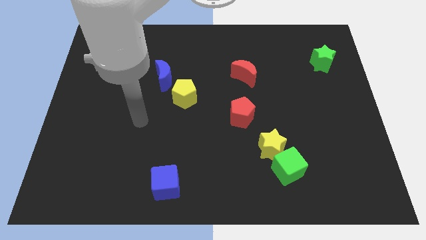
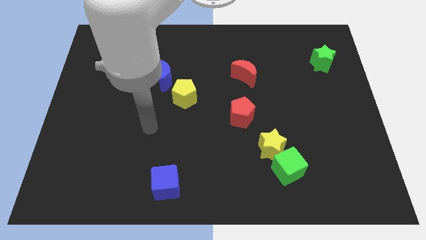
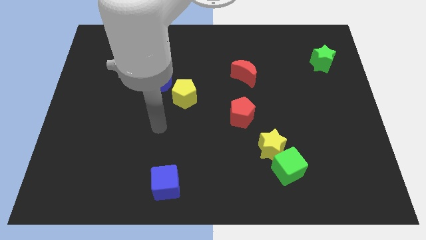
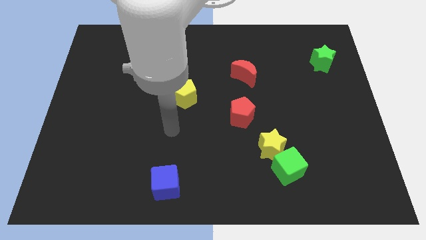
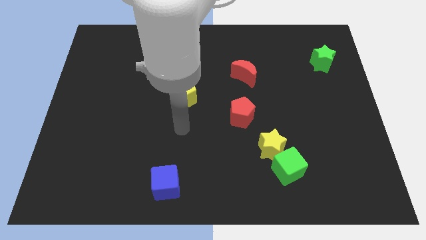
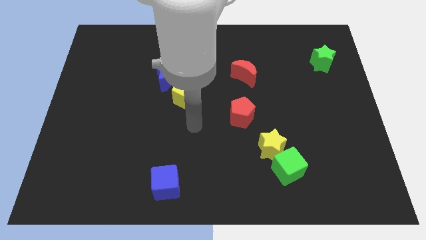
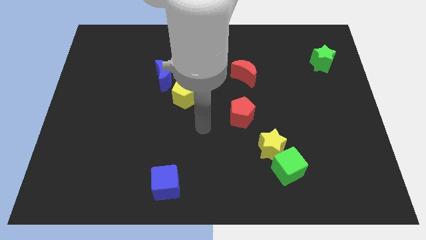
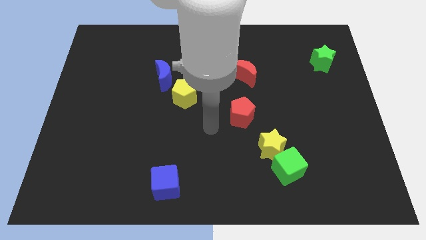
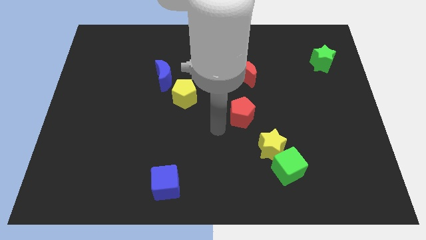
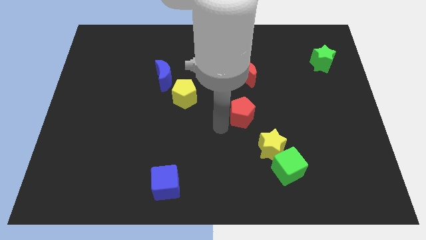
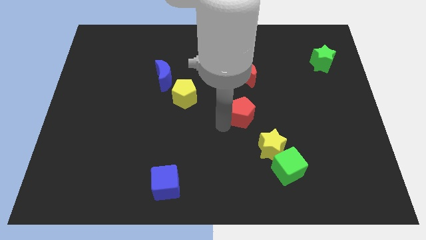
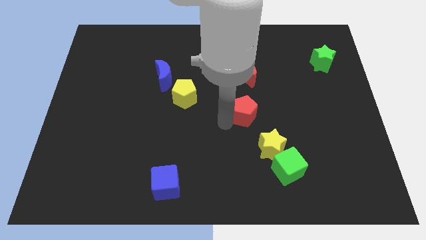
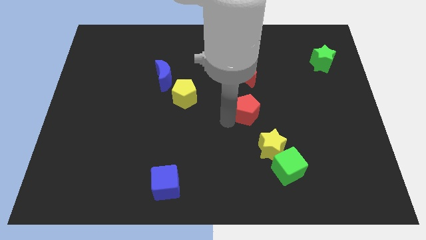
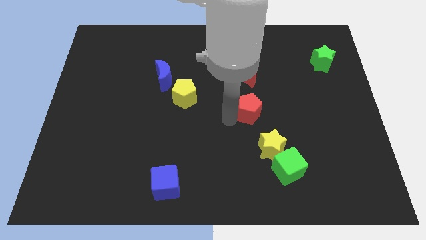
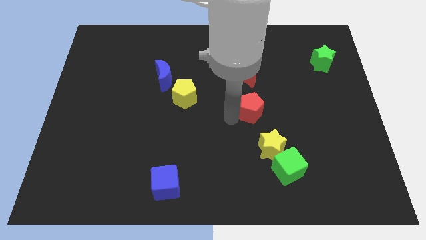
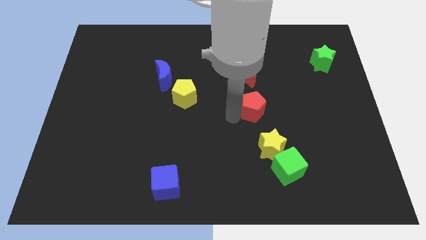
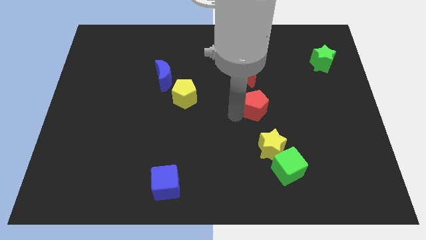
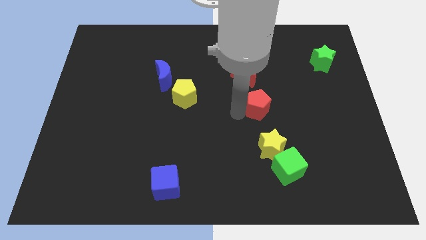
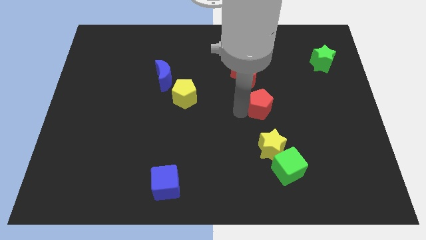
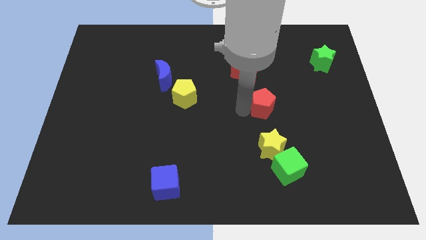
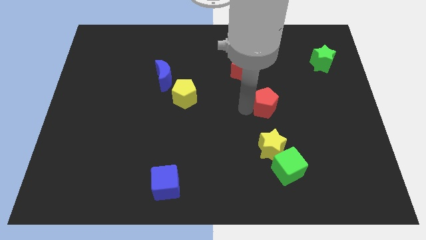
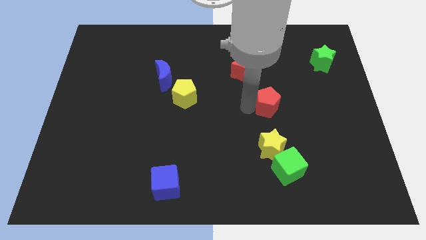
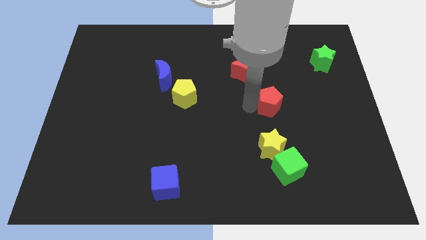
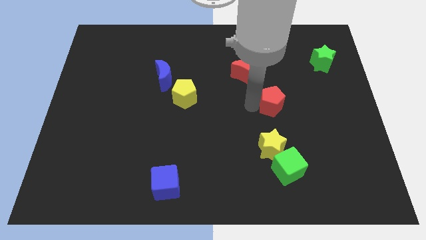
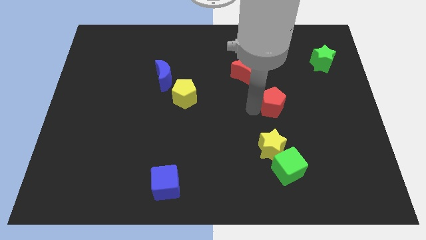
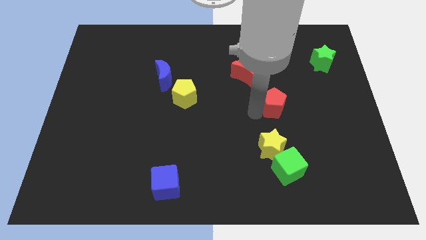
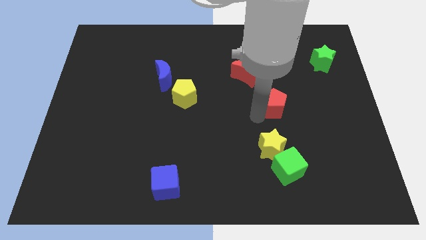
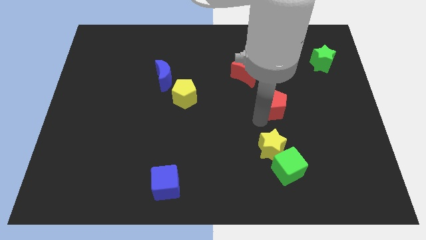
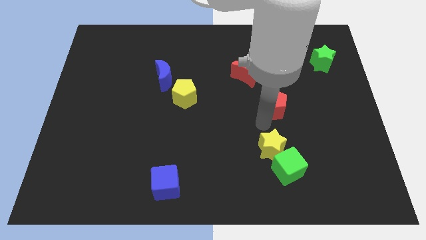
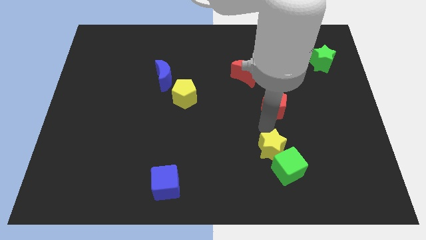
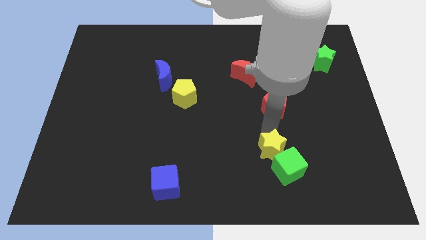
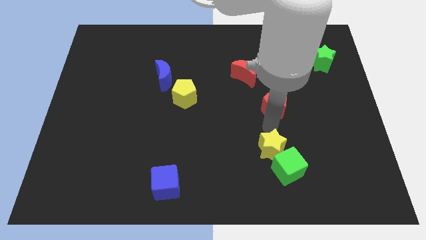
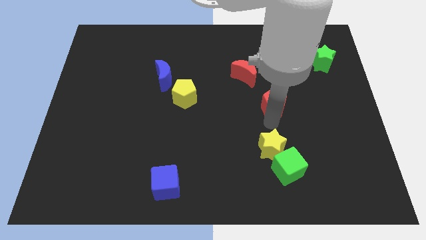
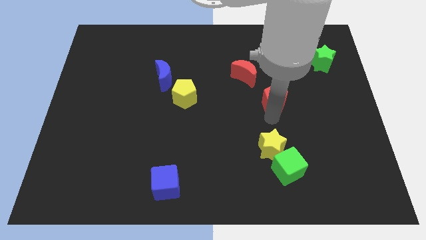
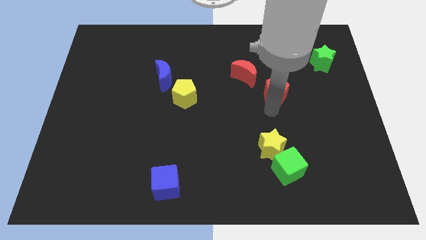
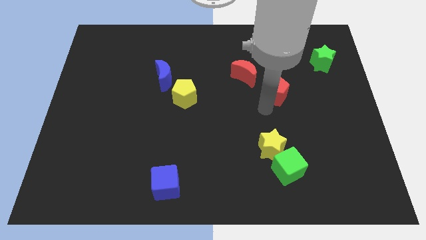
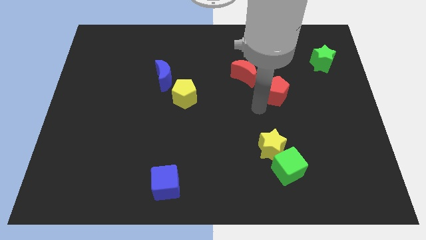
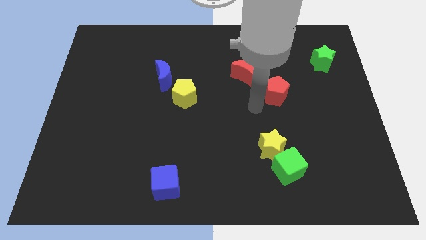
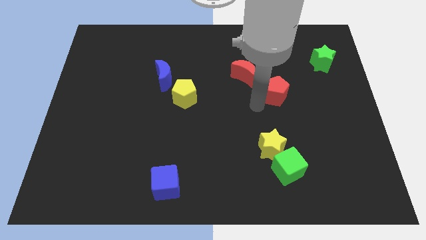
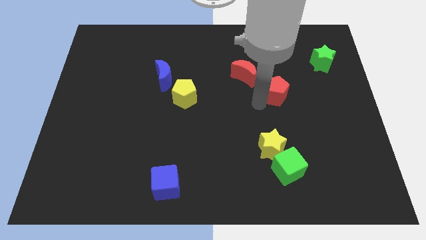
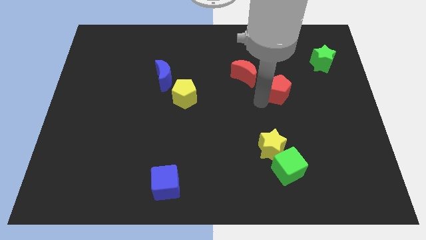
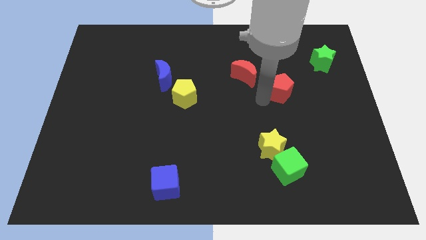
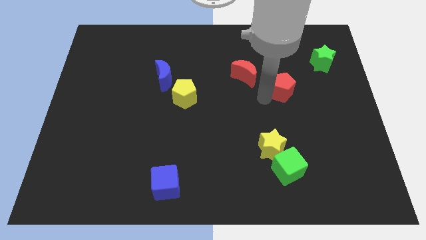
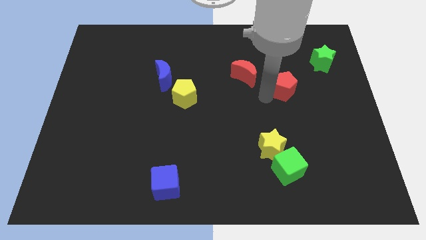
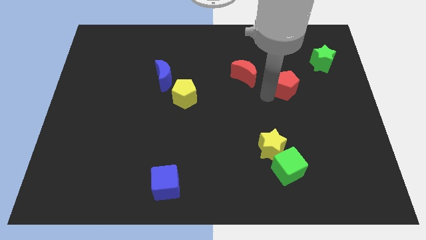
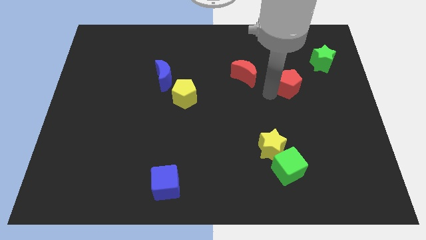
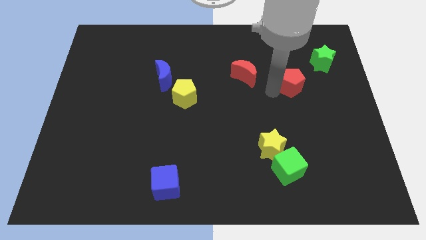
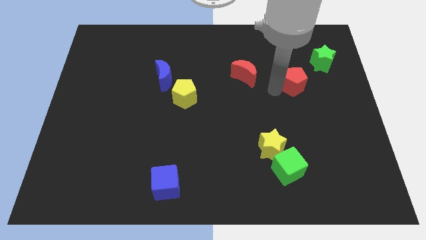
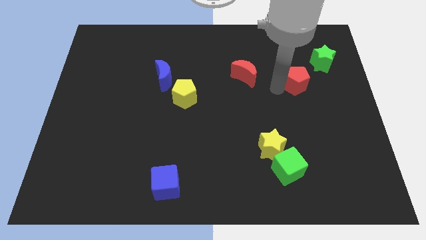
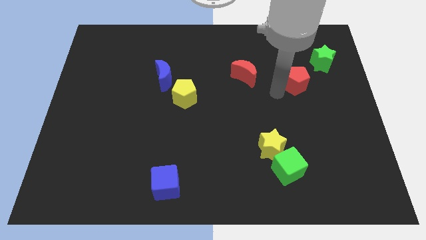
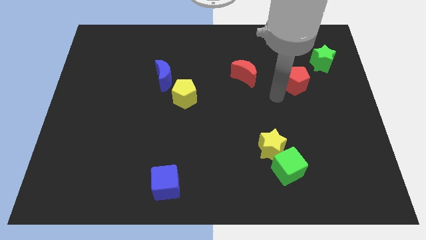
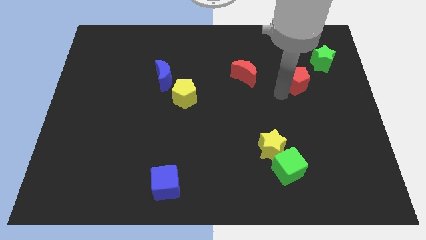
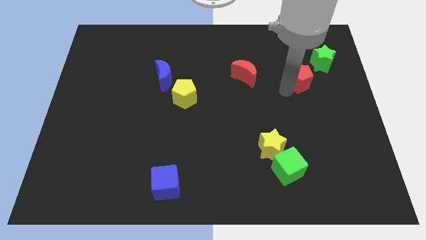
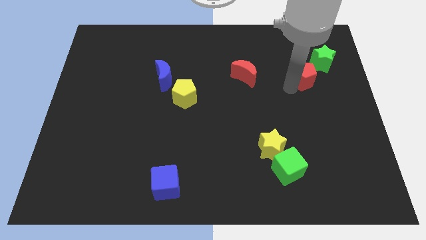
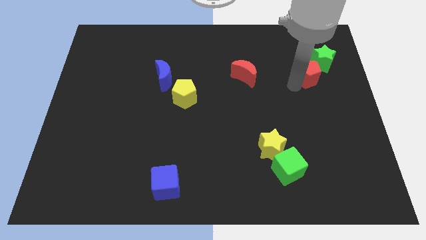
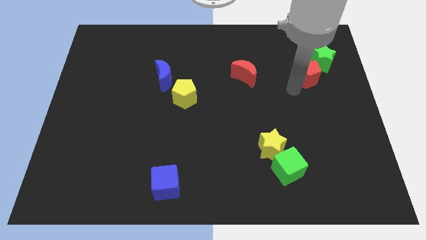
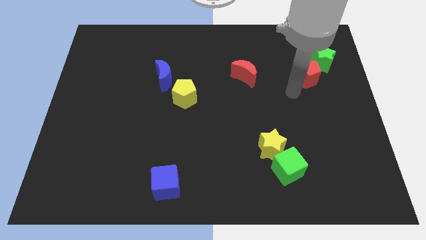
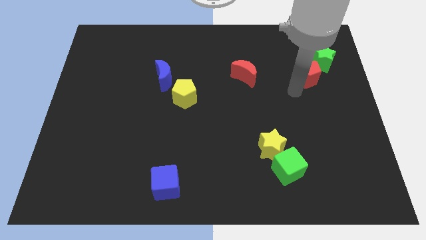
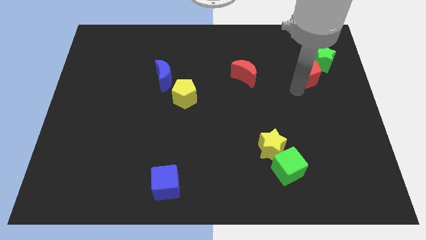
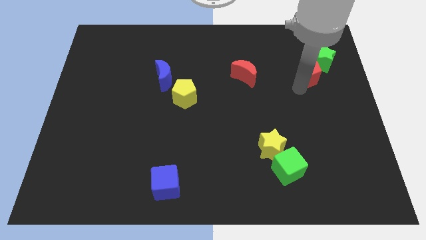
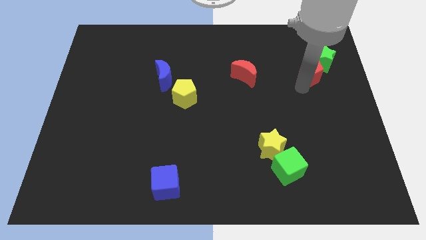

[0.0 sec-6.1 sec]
slide the red pentagon close to the green star

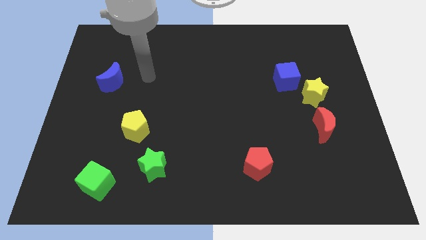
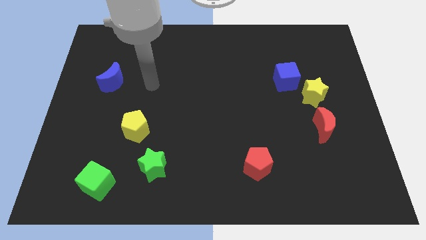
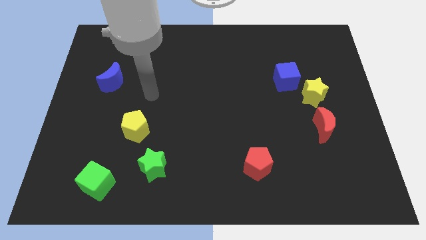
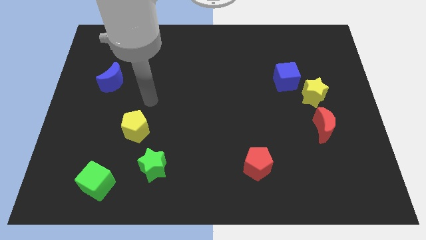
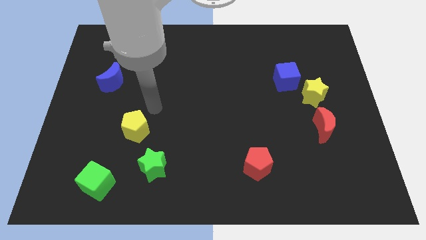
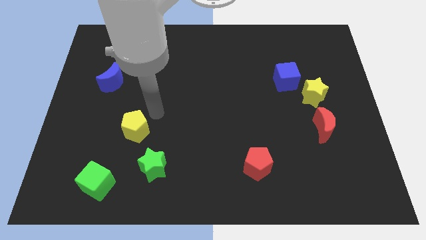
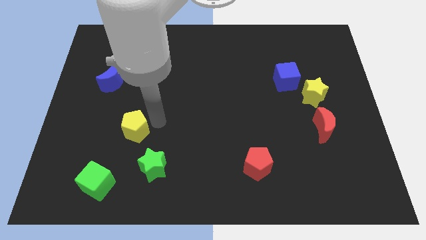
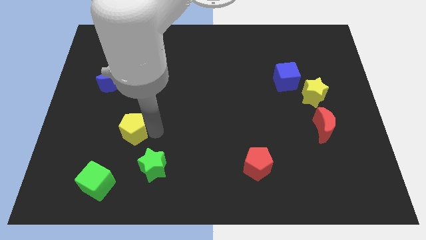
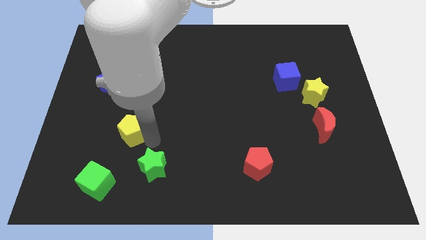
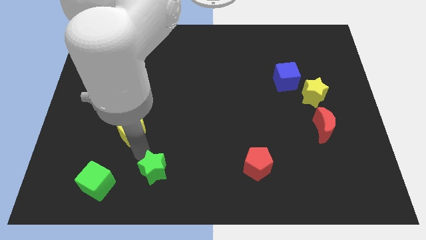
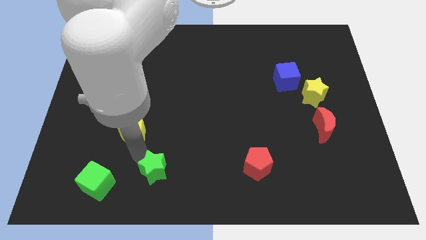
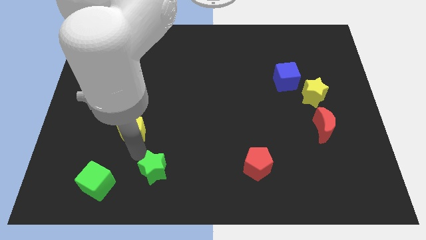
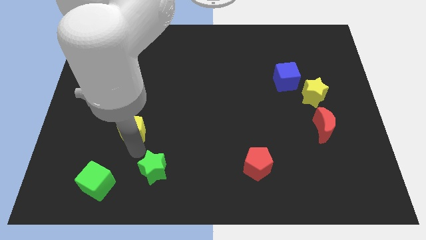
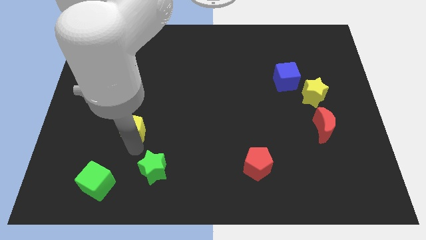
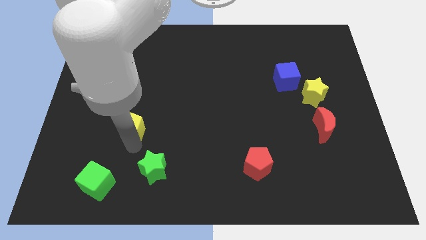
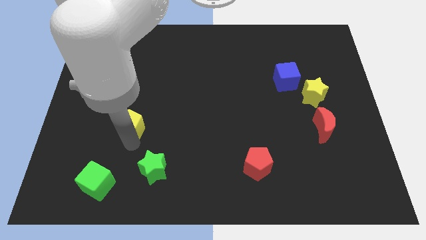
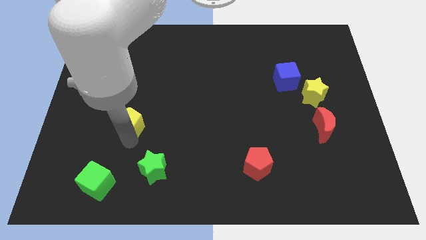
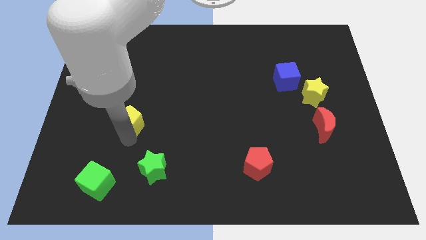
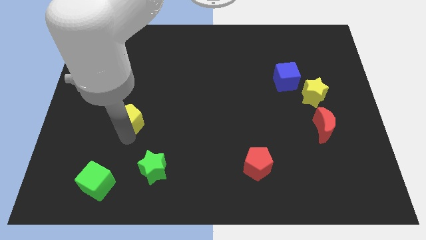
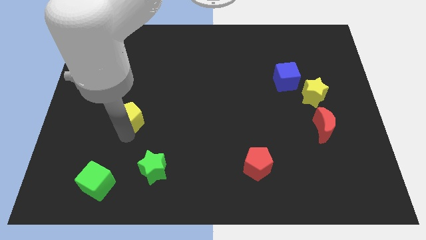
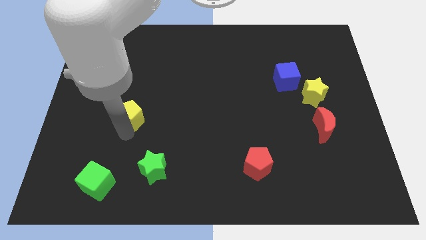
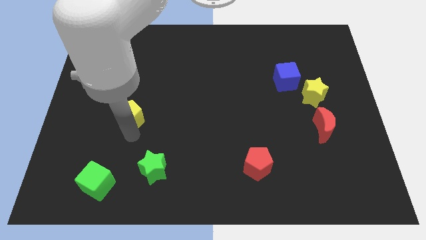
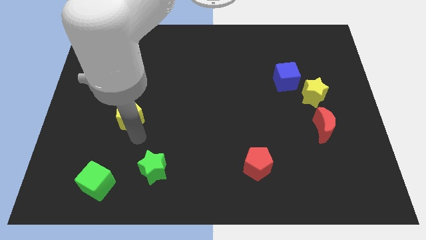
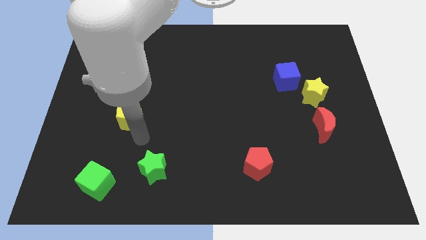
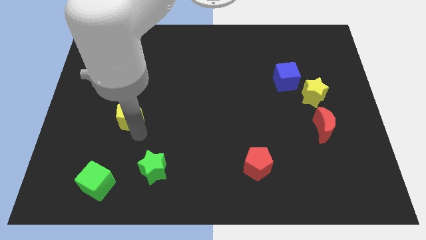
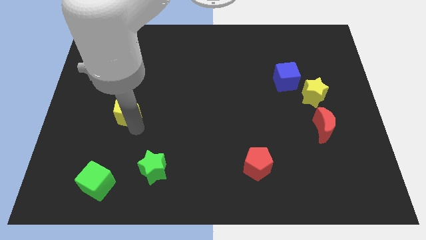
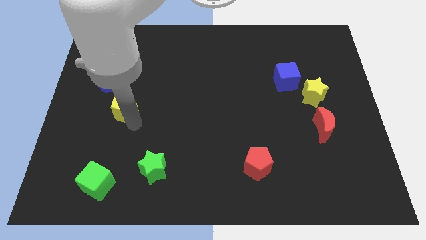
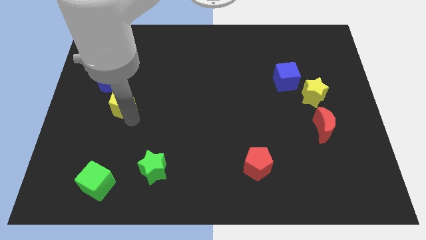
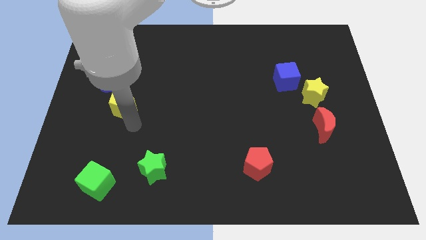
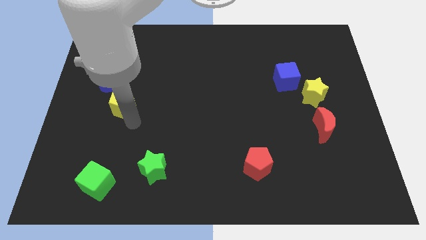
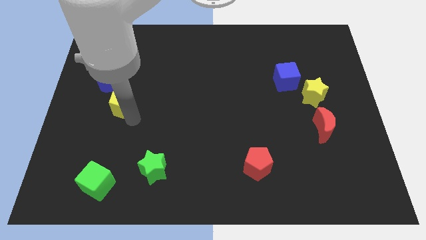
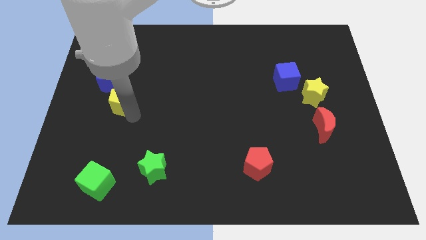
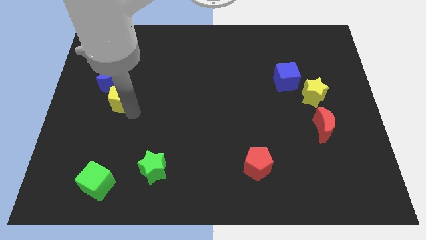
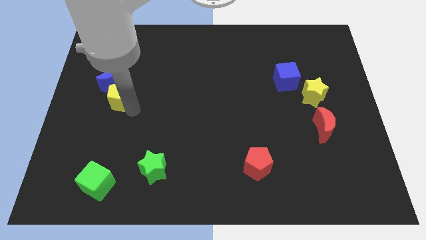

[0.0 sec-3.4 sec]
slide the yellow pentagon to the blue moon
